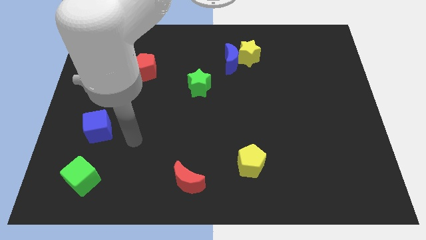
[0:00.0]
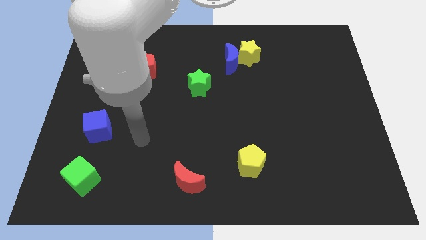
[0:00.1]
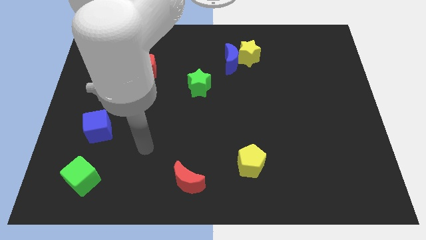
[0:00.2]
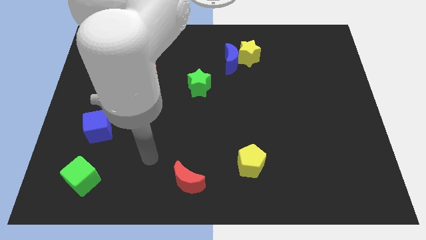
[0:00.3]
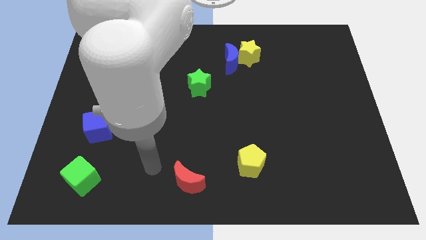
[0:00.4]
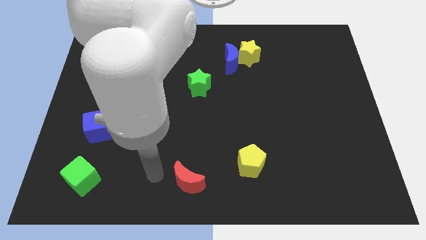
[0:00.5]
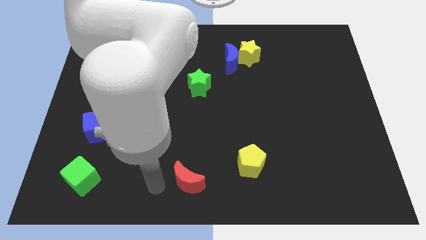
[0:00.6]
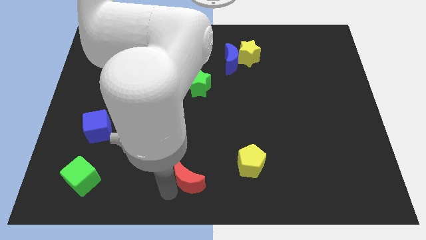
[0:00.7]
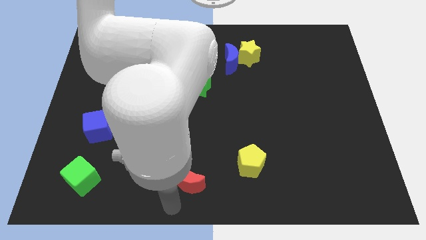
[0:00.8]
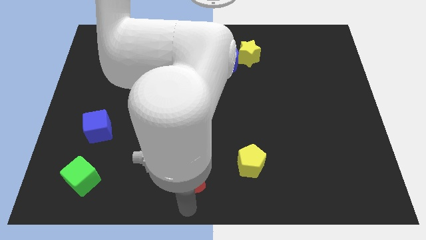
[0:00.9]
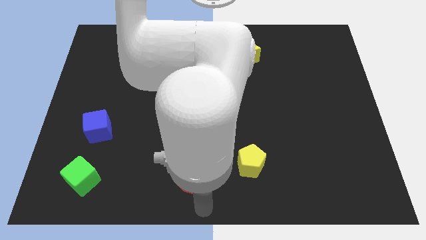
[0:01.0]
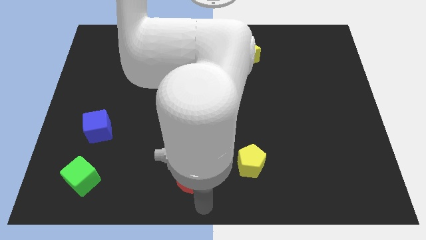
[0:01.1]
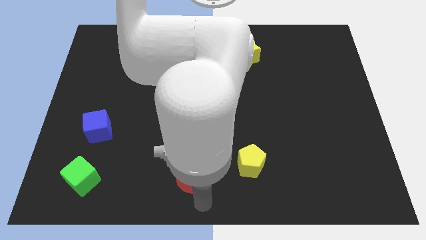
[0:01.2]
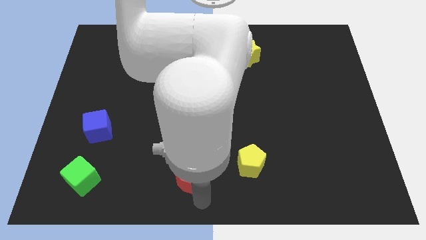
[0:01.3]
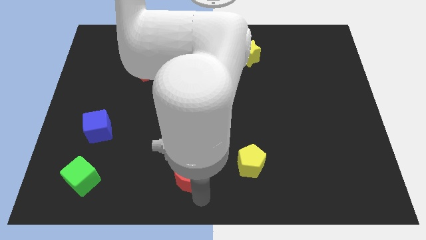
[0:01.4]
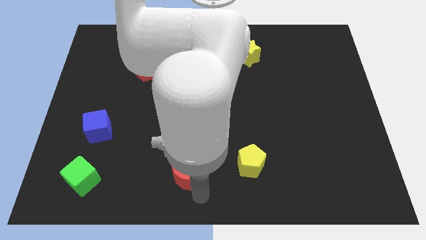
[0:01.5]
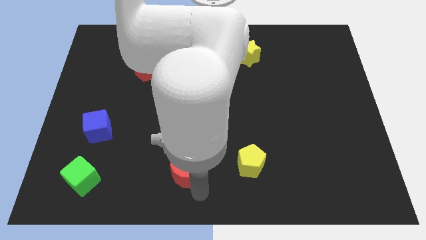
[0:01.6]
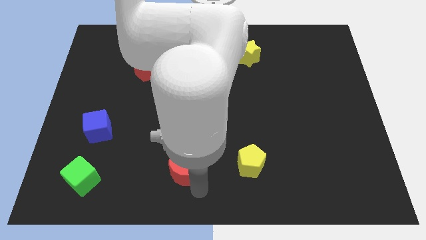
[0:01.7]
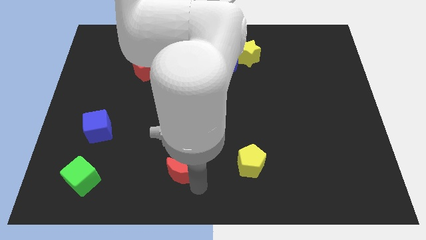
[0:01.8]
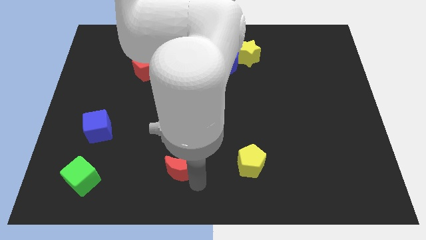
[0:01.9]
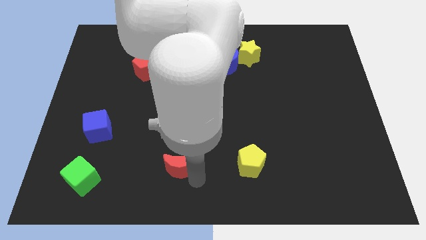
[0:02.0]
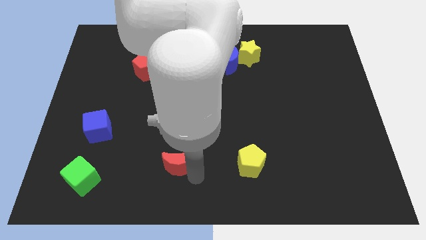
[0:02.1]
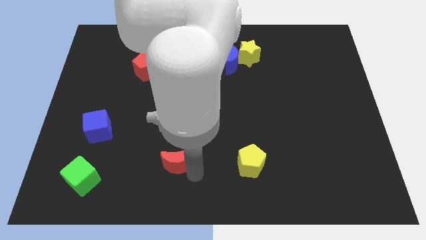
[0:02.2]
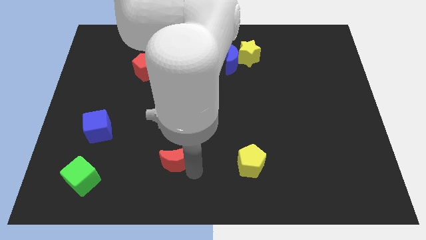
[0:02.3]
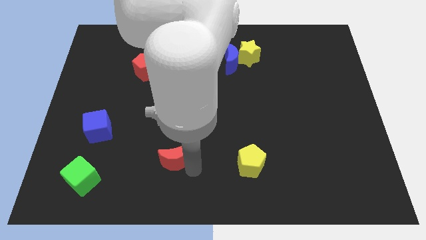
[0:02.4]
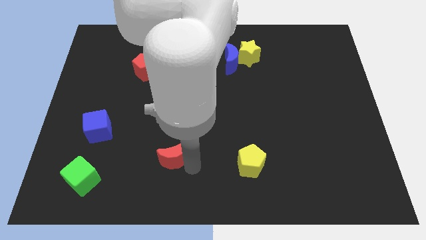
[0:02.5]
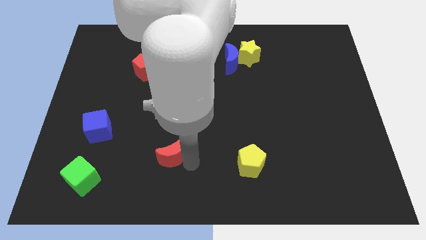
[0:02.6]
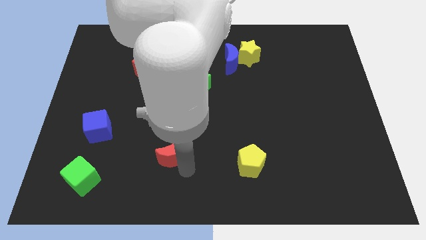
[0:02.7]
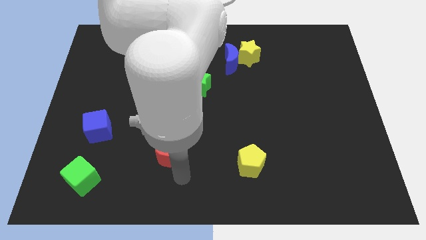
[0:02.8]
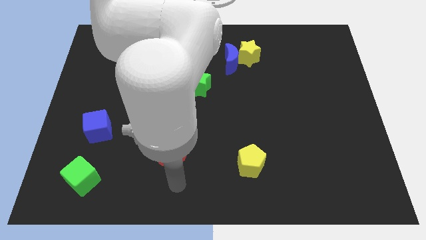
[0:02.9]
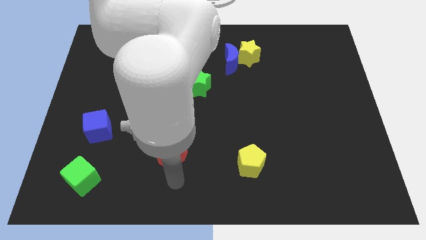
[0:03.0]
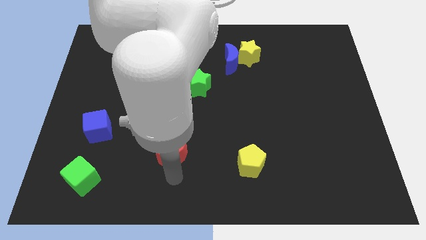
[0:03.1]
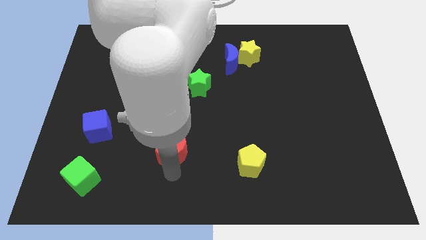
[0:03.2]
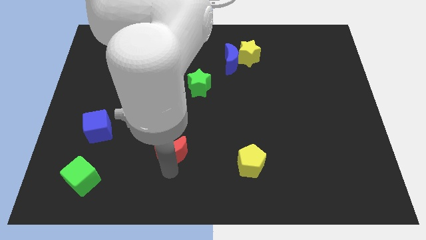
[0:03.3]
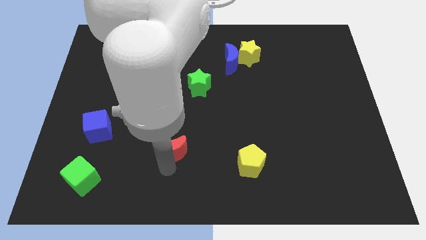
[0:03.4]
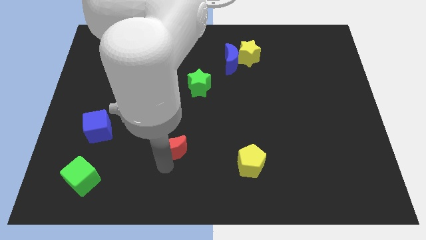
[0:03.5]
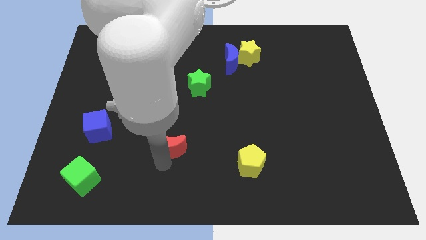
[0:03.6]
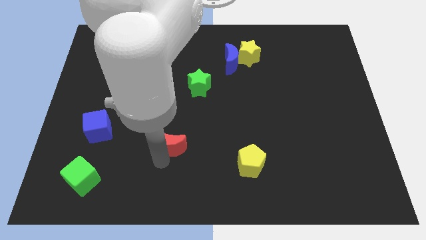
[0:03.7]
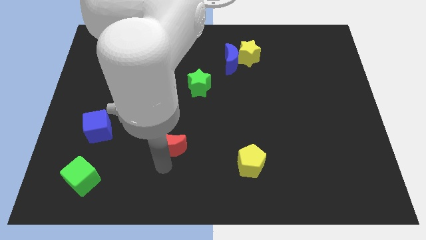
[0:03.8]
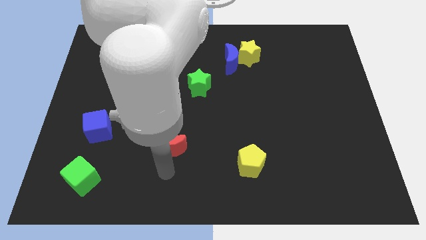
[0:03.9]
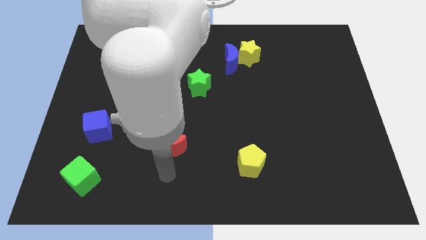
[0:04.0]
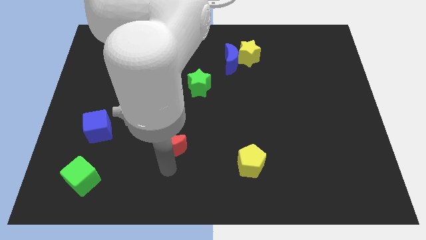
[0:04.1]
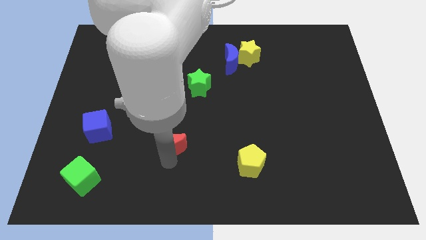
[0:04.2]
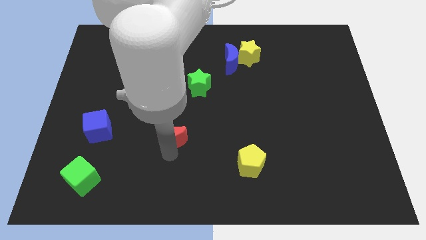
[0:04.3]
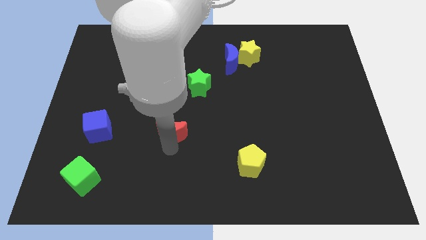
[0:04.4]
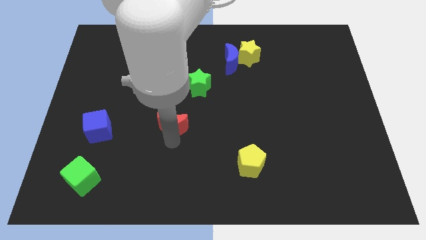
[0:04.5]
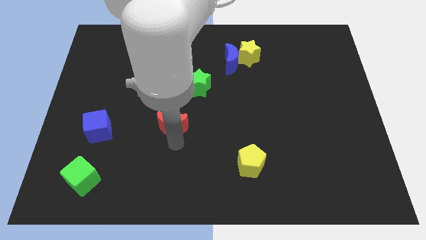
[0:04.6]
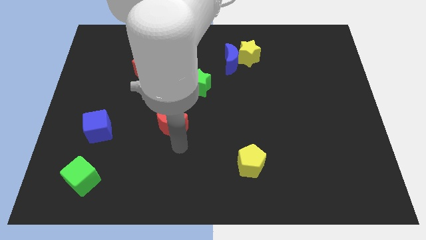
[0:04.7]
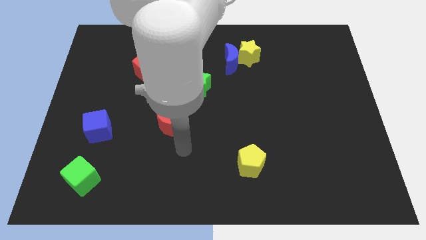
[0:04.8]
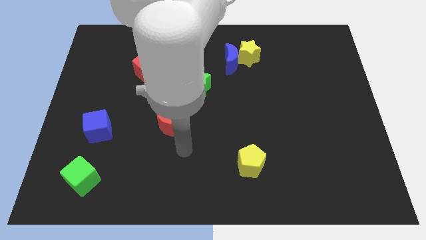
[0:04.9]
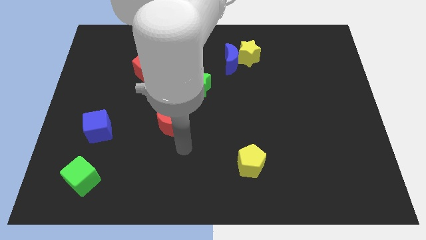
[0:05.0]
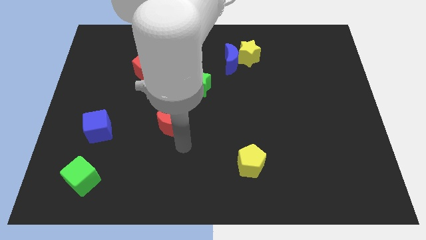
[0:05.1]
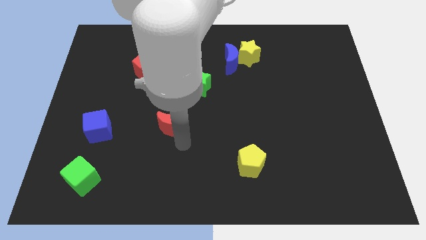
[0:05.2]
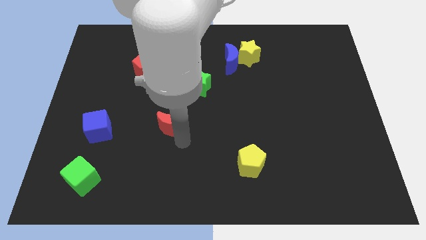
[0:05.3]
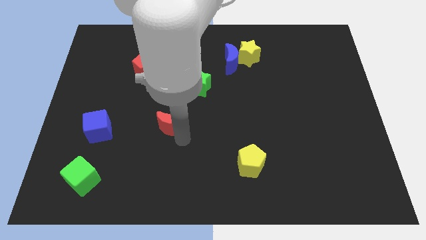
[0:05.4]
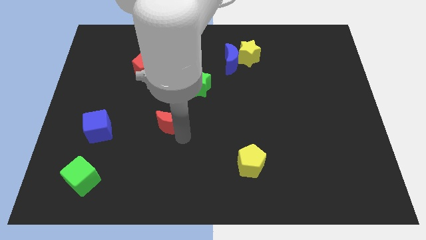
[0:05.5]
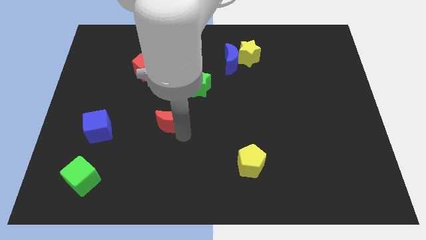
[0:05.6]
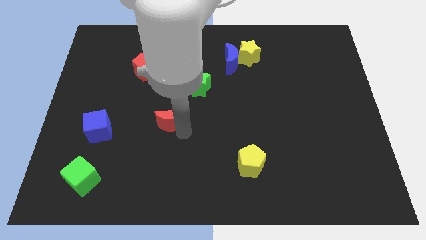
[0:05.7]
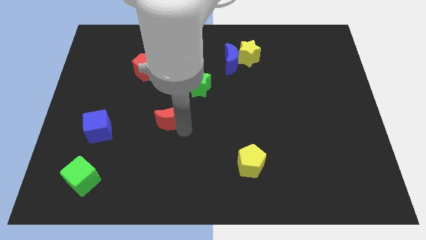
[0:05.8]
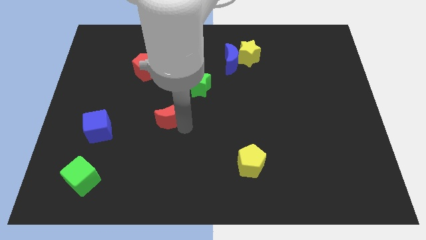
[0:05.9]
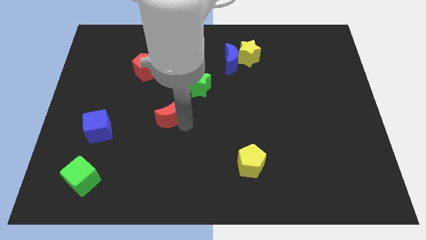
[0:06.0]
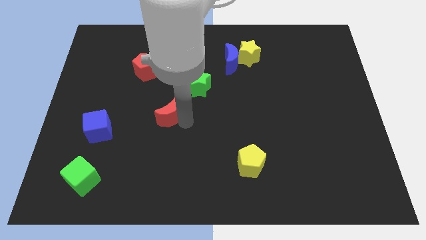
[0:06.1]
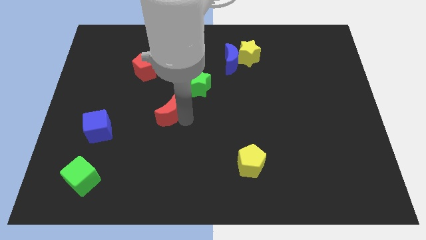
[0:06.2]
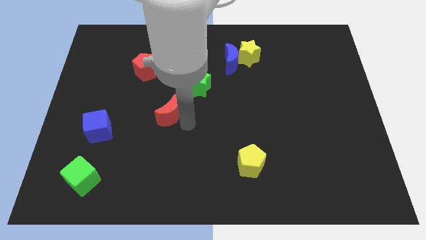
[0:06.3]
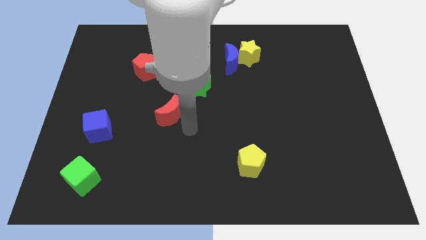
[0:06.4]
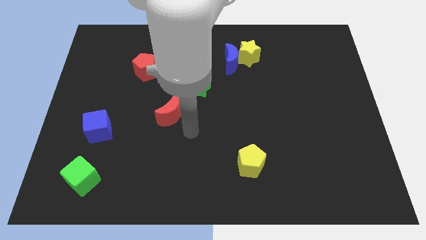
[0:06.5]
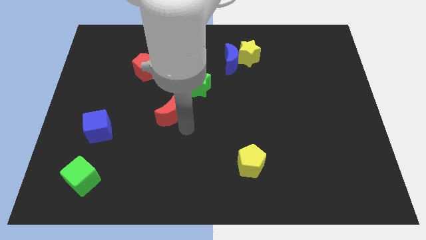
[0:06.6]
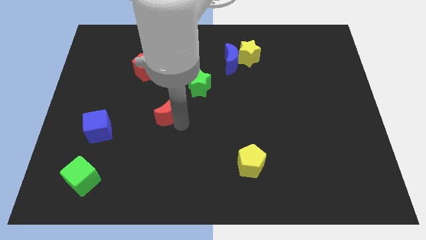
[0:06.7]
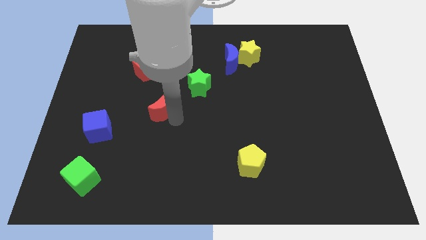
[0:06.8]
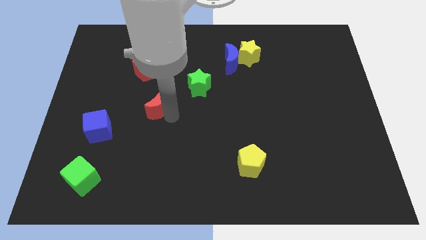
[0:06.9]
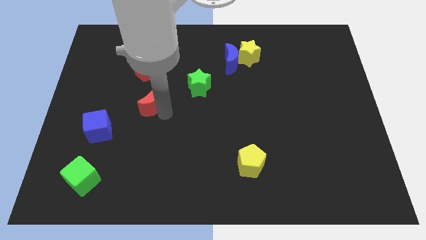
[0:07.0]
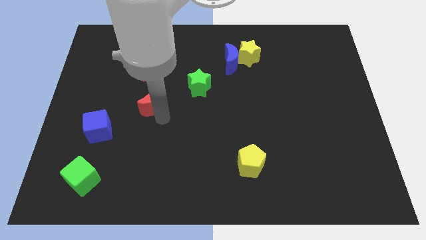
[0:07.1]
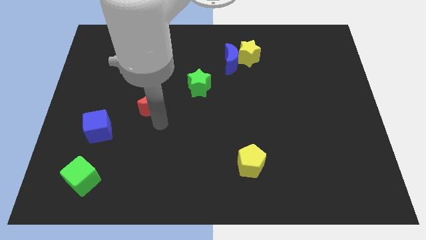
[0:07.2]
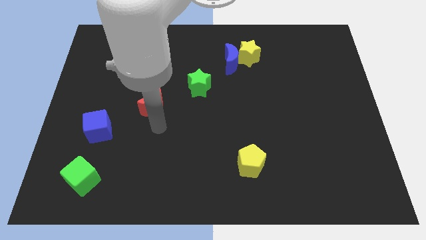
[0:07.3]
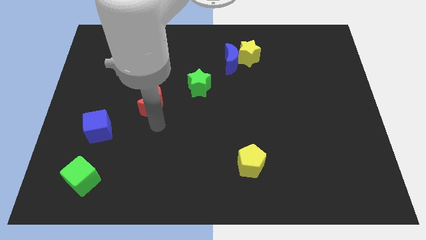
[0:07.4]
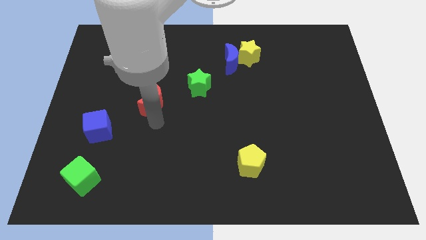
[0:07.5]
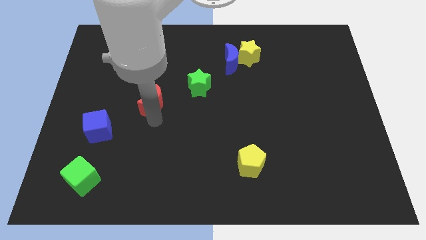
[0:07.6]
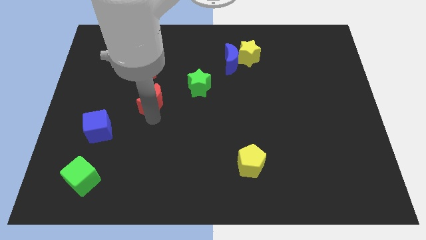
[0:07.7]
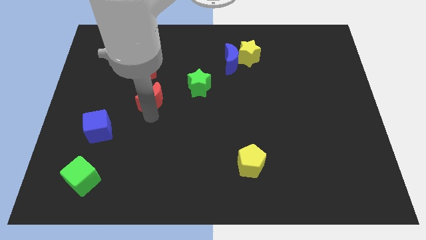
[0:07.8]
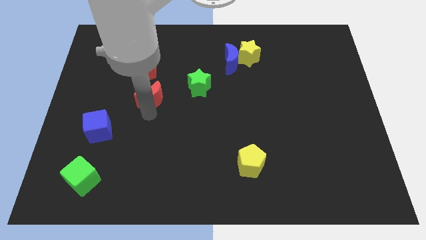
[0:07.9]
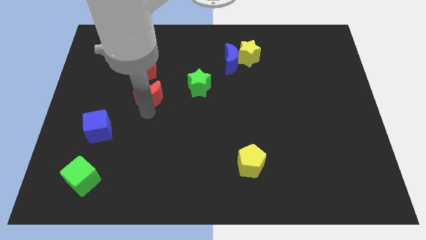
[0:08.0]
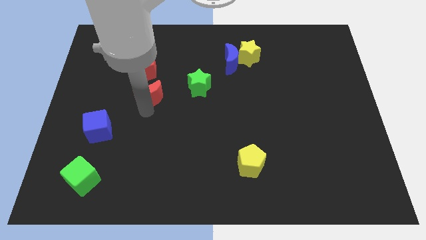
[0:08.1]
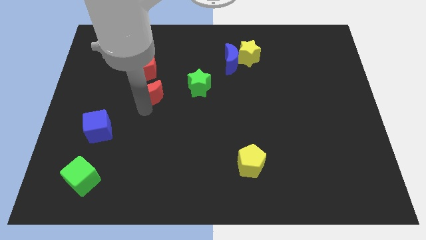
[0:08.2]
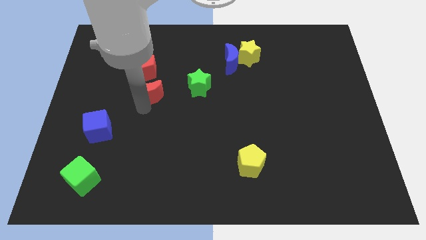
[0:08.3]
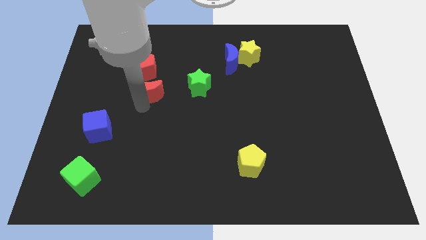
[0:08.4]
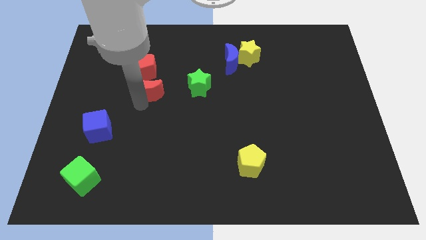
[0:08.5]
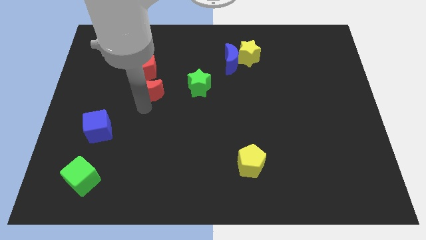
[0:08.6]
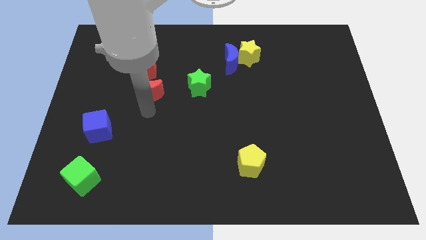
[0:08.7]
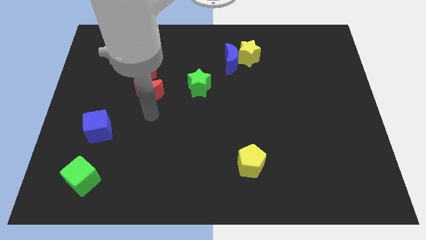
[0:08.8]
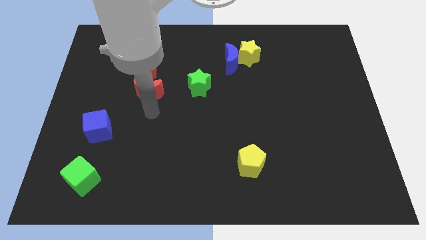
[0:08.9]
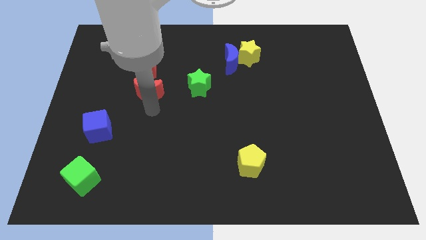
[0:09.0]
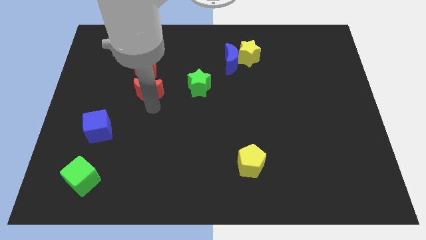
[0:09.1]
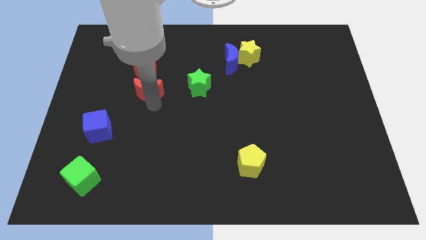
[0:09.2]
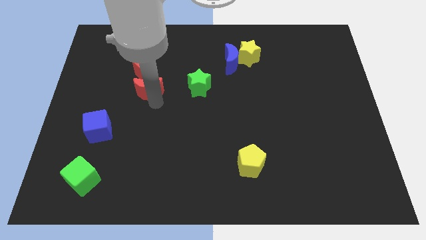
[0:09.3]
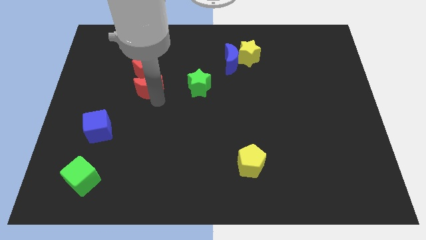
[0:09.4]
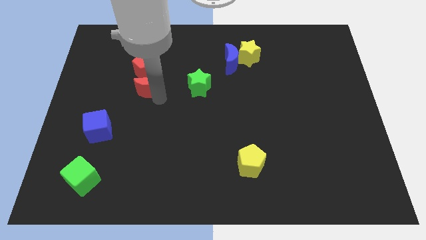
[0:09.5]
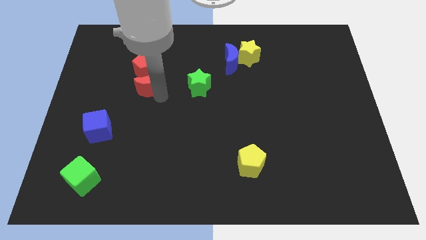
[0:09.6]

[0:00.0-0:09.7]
move the red moon close to the red pentagon
